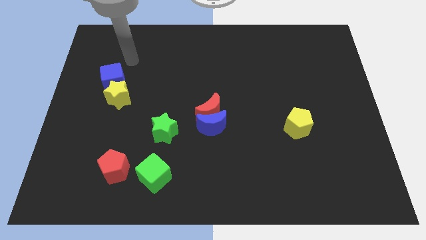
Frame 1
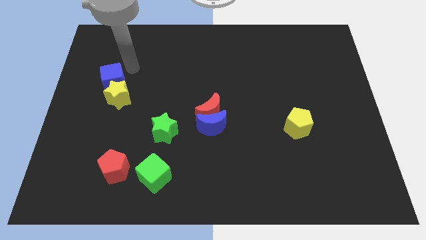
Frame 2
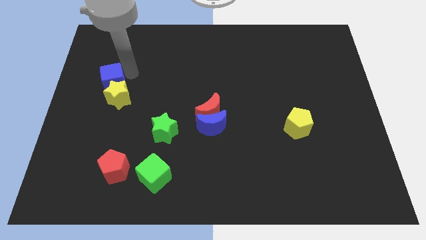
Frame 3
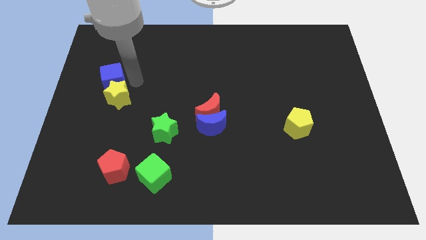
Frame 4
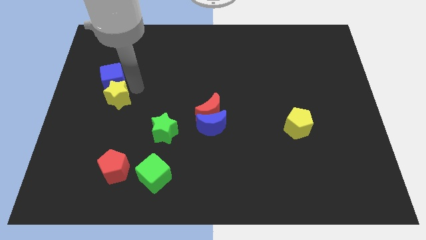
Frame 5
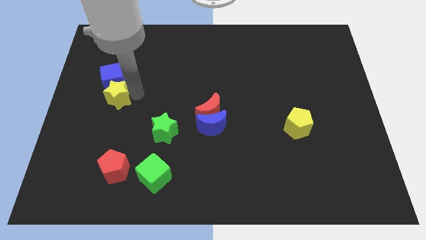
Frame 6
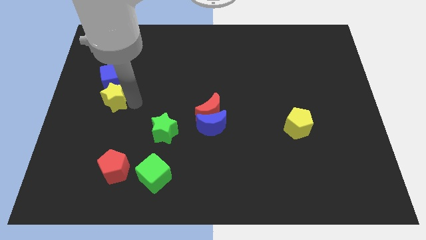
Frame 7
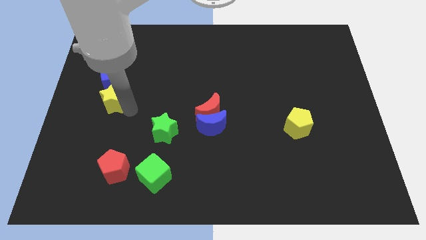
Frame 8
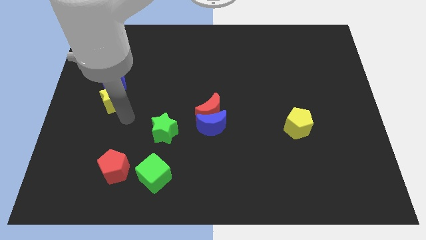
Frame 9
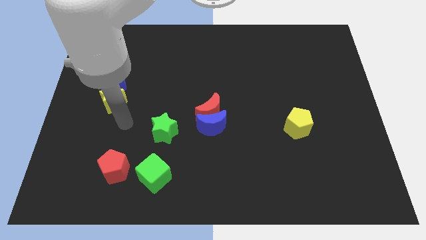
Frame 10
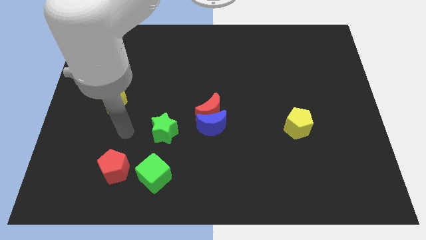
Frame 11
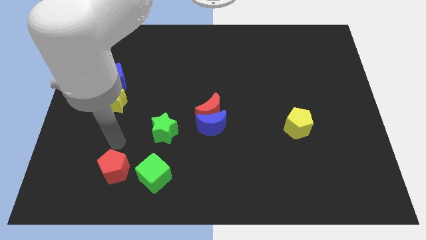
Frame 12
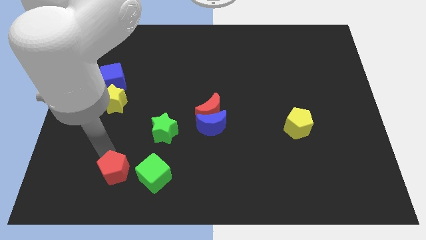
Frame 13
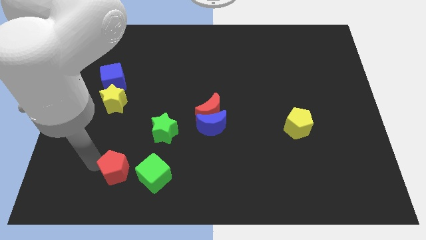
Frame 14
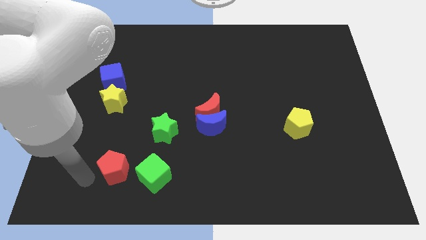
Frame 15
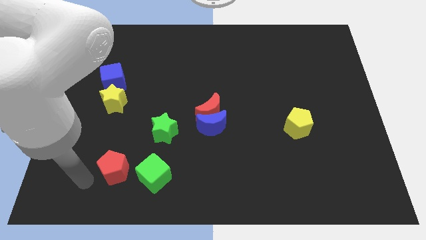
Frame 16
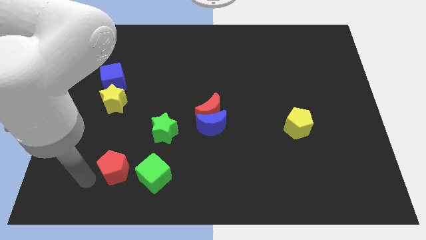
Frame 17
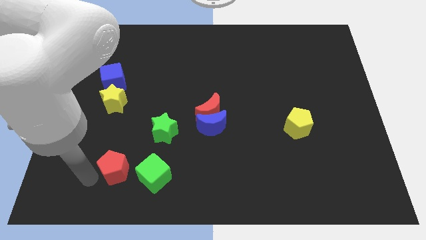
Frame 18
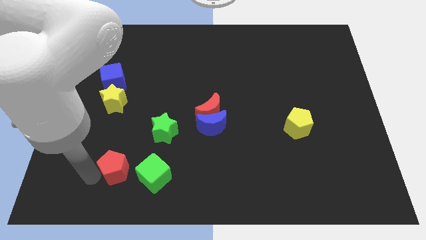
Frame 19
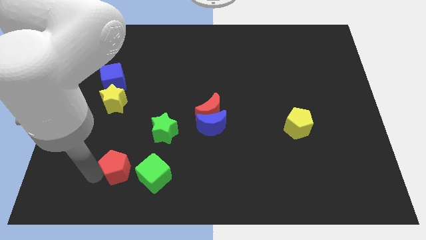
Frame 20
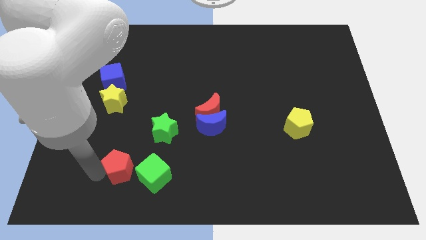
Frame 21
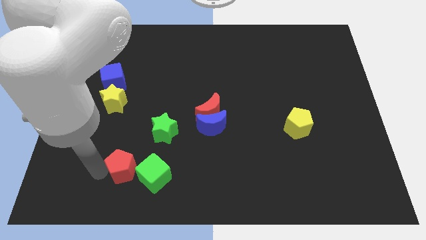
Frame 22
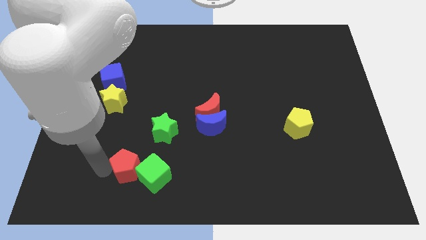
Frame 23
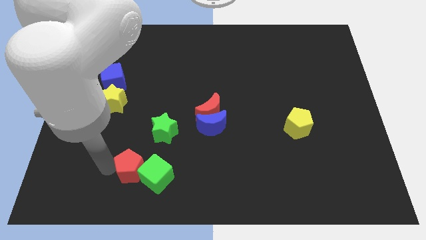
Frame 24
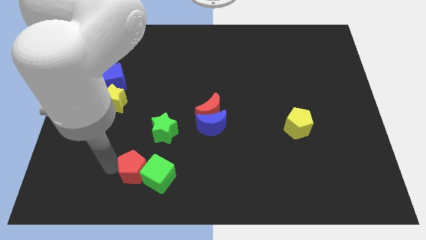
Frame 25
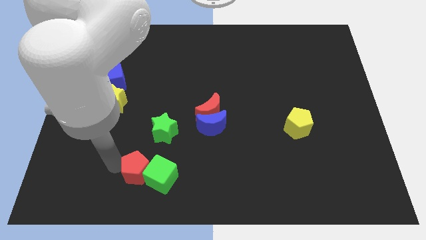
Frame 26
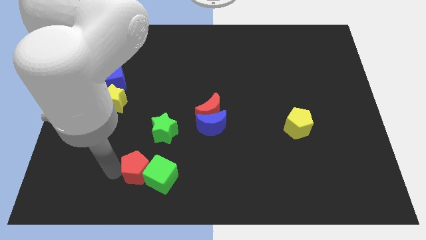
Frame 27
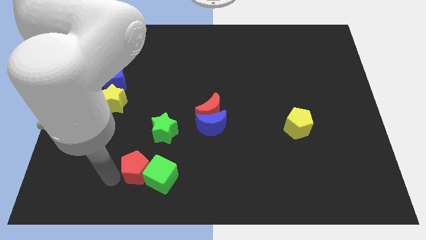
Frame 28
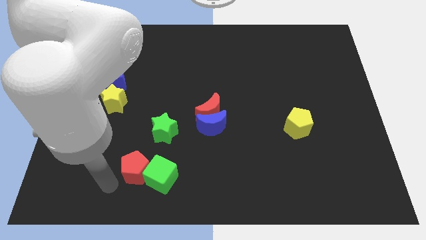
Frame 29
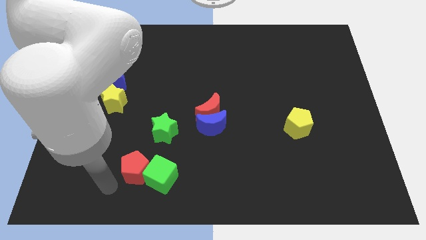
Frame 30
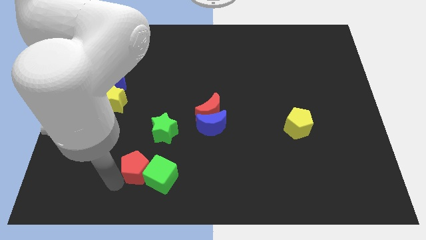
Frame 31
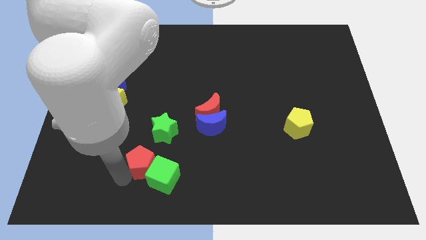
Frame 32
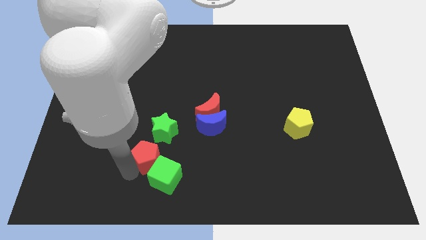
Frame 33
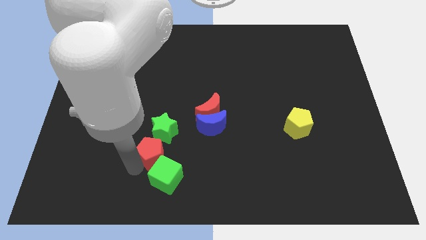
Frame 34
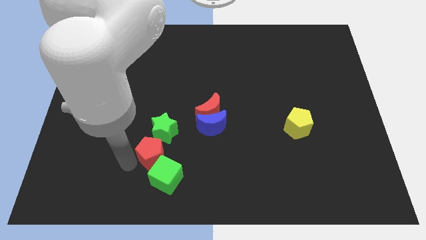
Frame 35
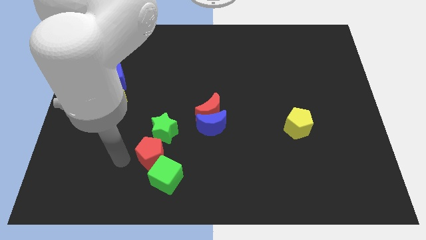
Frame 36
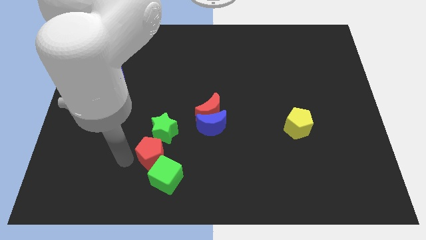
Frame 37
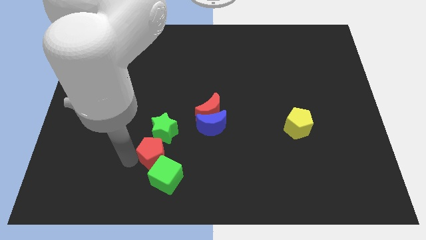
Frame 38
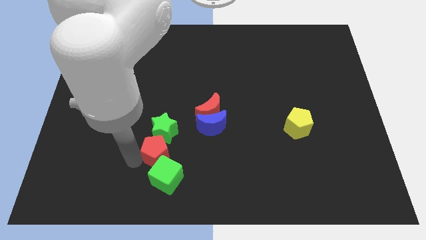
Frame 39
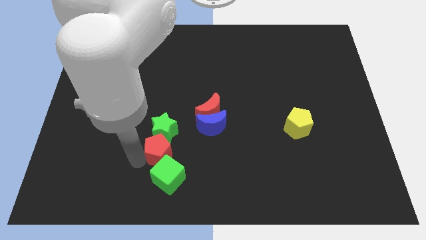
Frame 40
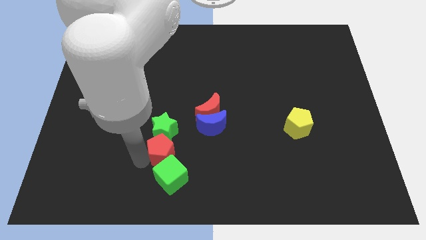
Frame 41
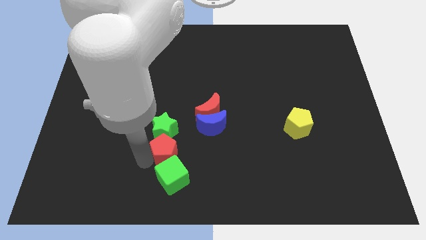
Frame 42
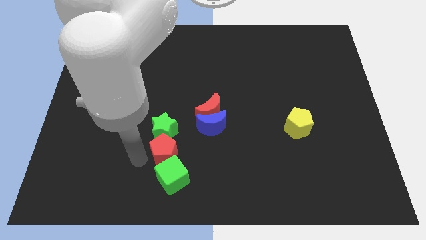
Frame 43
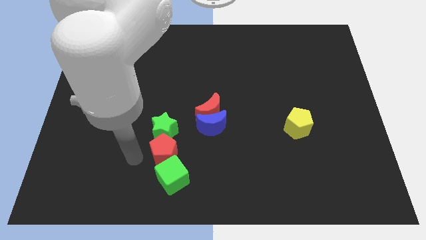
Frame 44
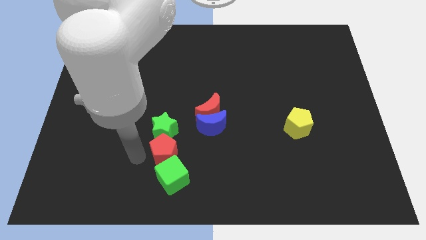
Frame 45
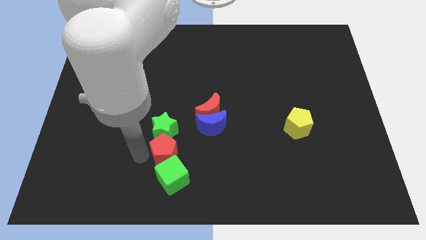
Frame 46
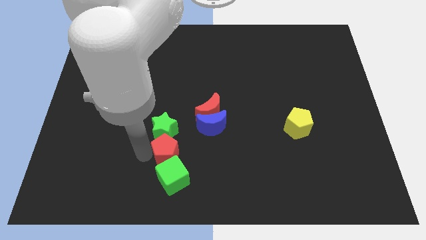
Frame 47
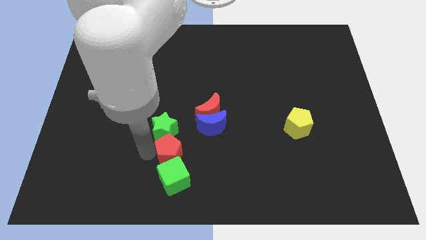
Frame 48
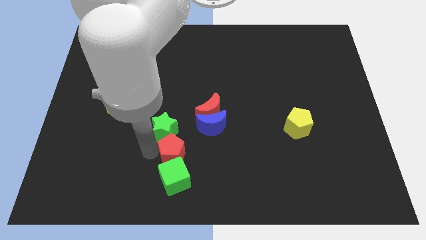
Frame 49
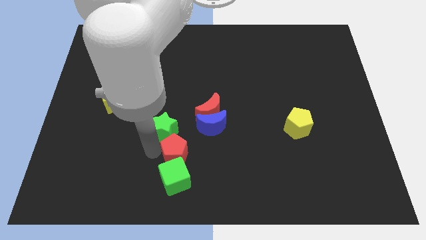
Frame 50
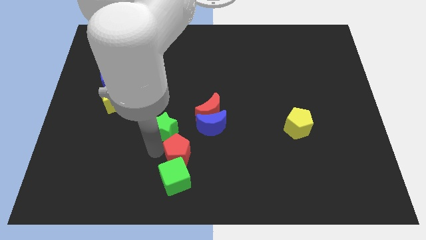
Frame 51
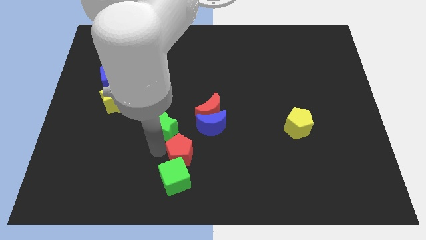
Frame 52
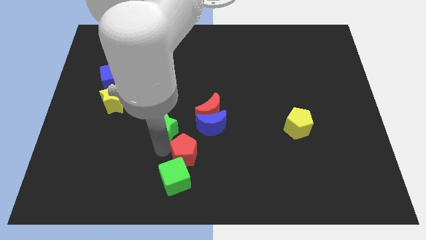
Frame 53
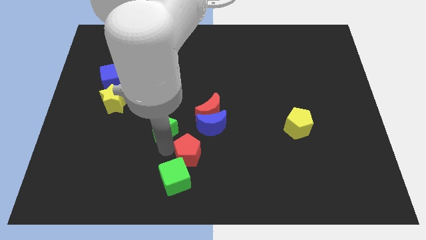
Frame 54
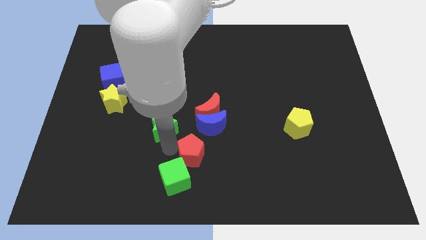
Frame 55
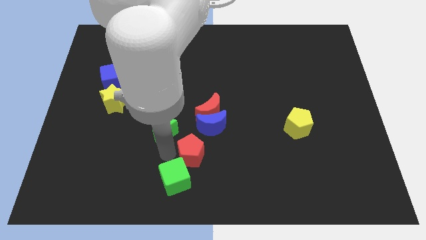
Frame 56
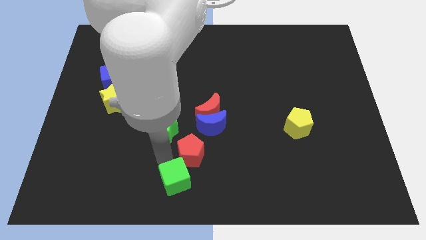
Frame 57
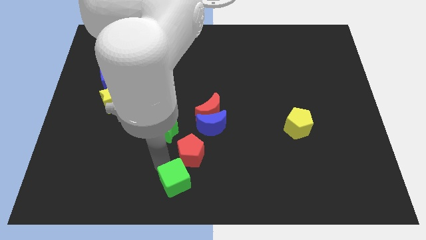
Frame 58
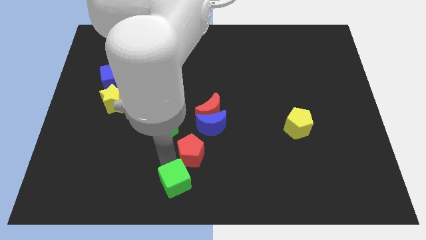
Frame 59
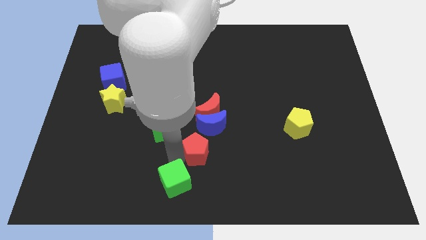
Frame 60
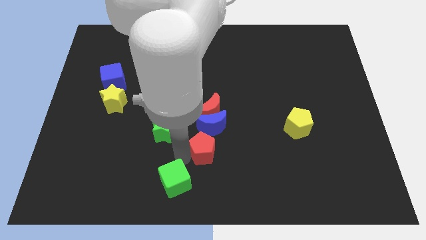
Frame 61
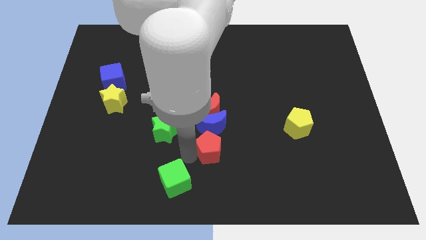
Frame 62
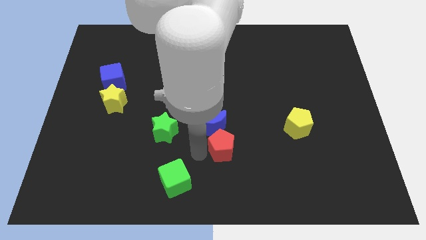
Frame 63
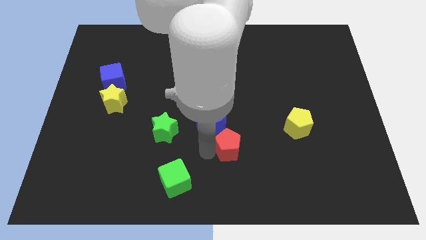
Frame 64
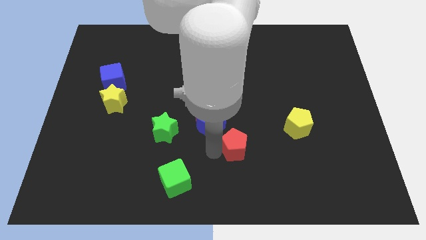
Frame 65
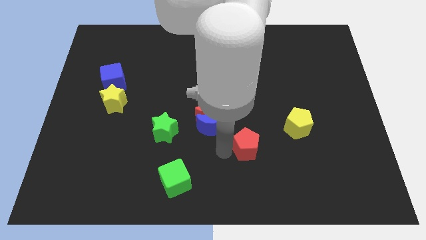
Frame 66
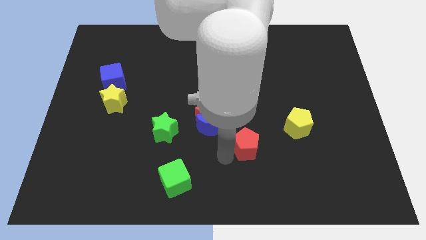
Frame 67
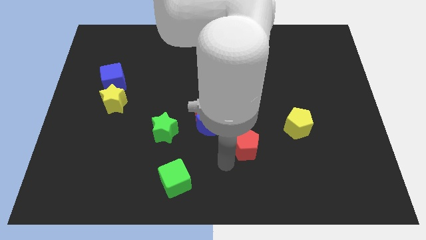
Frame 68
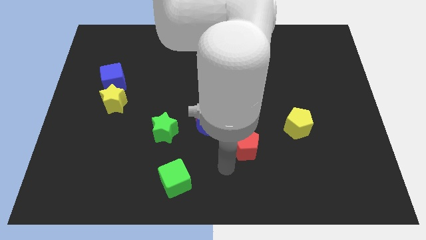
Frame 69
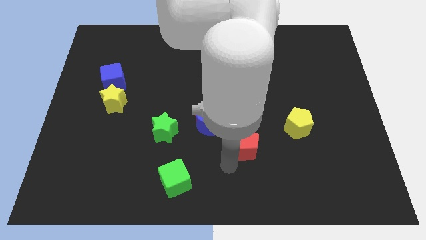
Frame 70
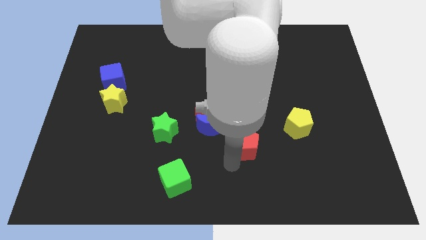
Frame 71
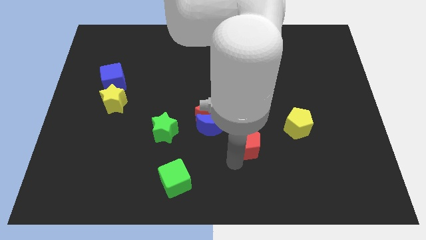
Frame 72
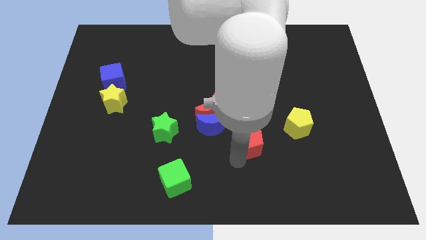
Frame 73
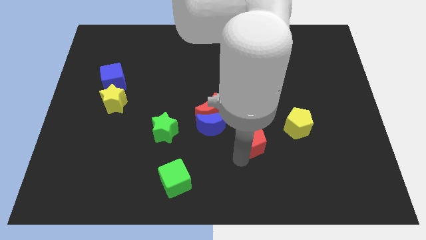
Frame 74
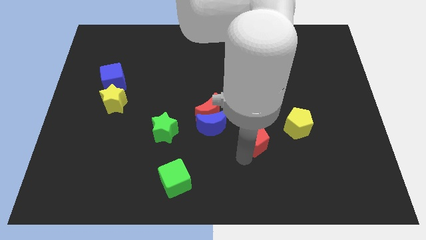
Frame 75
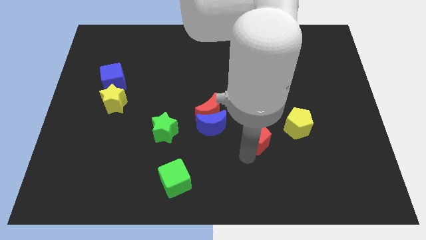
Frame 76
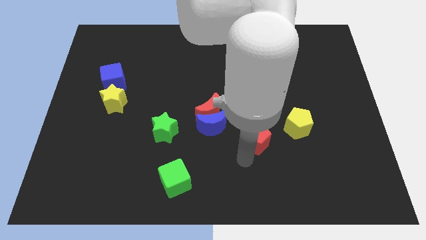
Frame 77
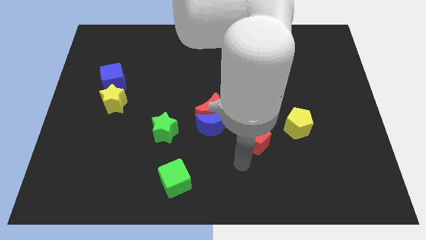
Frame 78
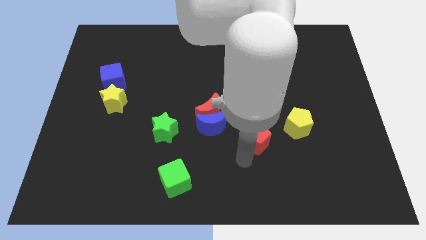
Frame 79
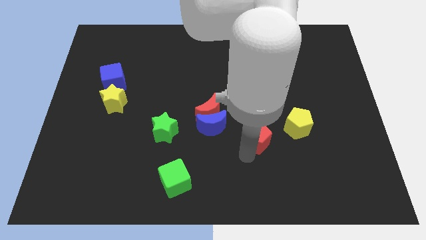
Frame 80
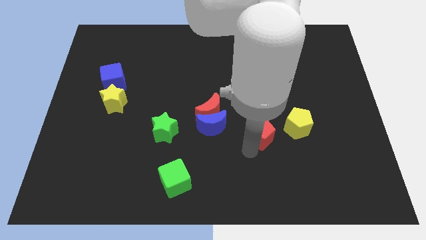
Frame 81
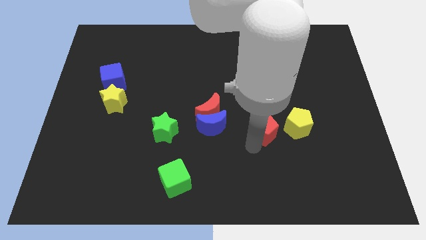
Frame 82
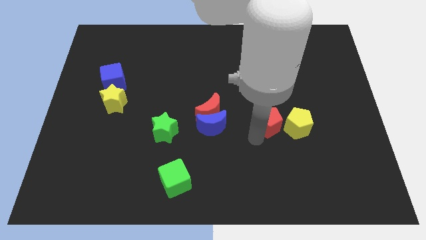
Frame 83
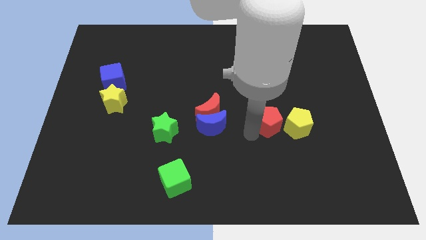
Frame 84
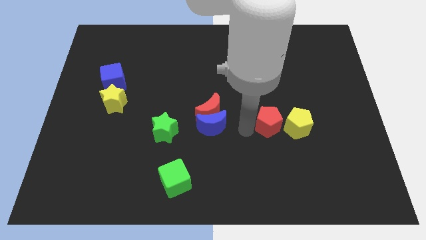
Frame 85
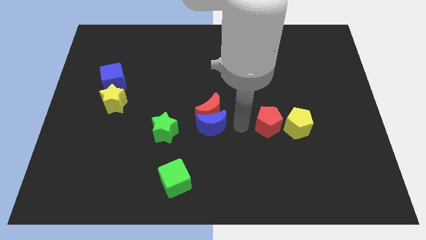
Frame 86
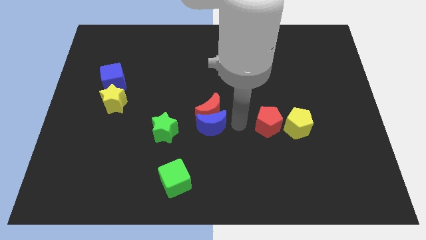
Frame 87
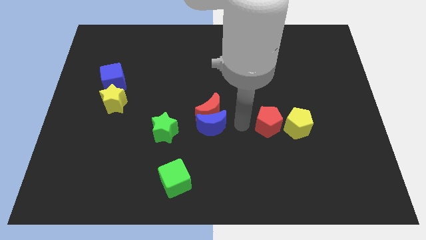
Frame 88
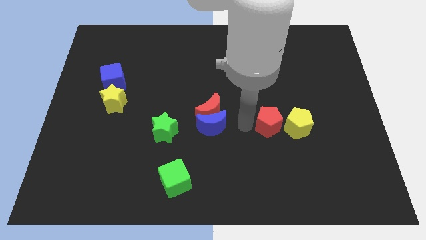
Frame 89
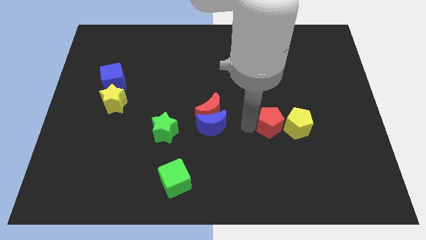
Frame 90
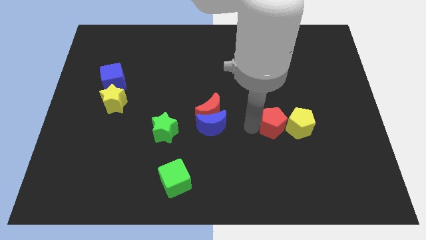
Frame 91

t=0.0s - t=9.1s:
move the red pentagon next to the yellow pentagon
